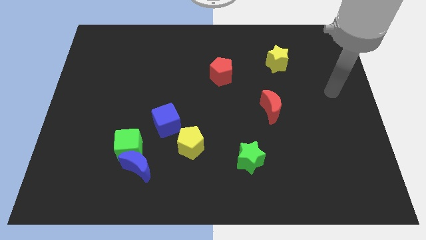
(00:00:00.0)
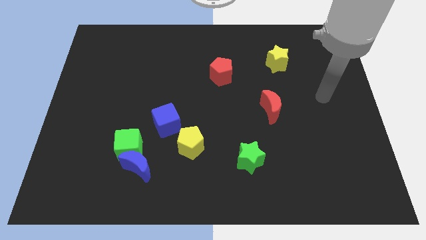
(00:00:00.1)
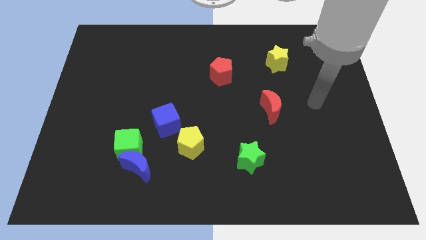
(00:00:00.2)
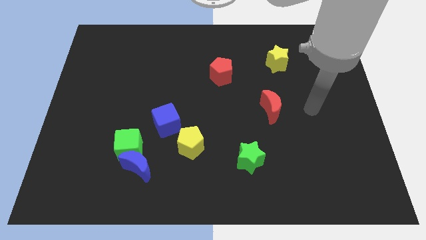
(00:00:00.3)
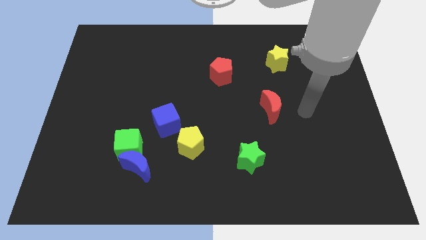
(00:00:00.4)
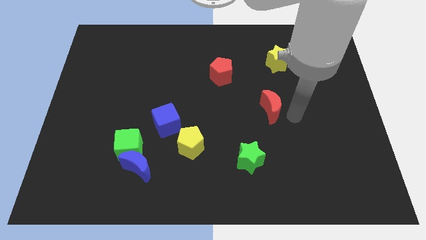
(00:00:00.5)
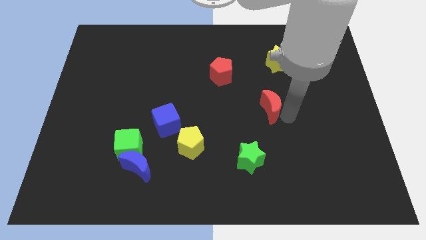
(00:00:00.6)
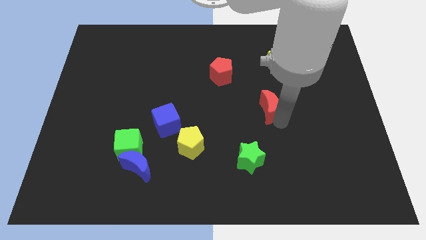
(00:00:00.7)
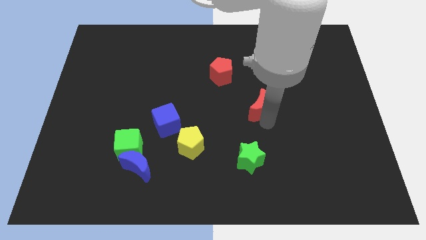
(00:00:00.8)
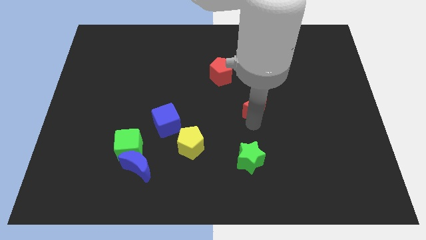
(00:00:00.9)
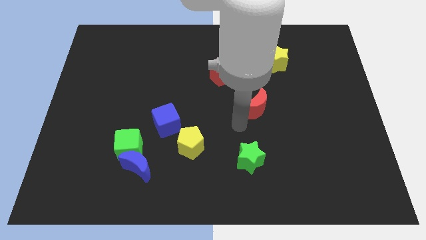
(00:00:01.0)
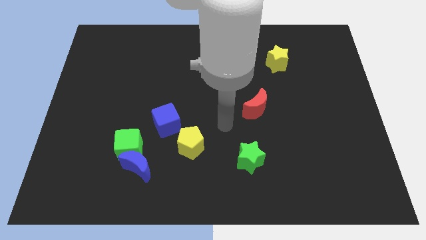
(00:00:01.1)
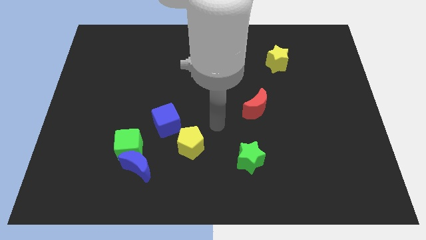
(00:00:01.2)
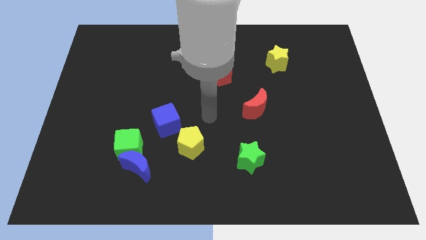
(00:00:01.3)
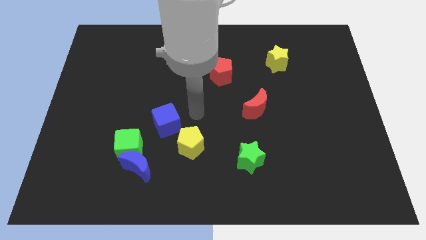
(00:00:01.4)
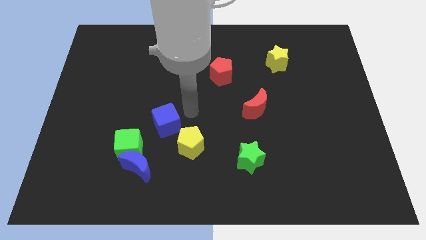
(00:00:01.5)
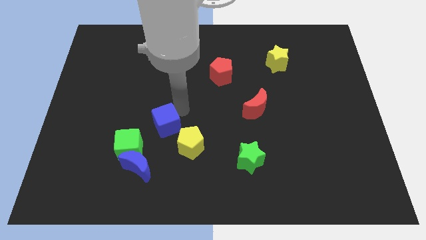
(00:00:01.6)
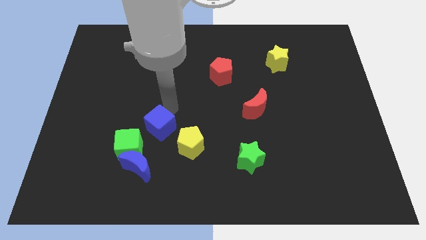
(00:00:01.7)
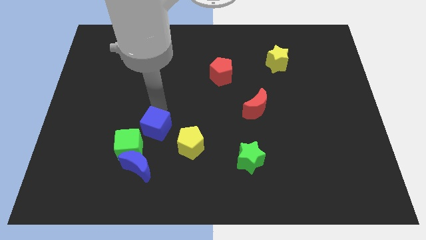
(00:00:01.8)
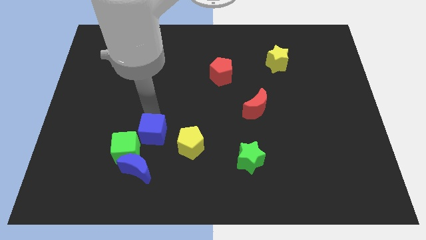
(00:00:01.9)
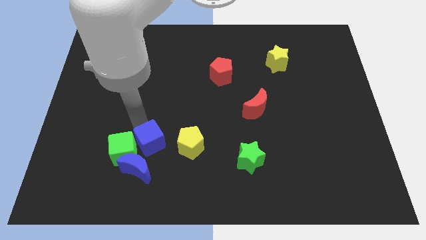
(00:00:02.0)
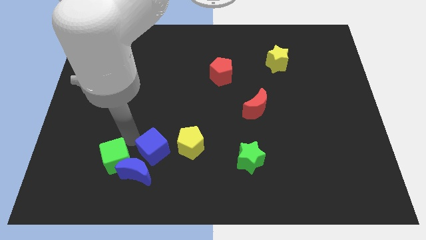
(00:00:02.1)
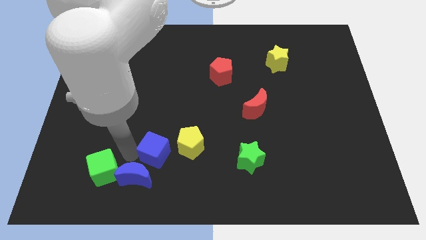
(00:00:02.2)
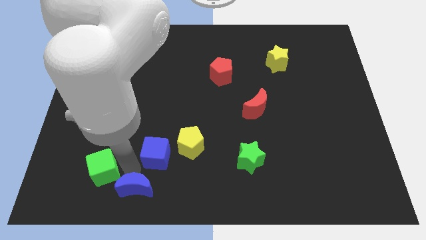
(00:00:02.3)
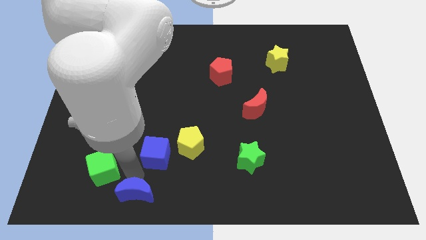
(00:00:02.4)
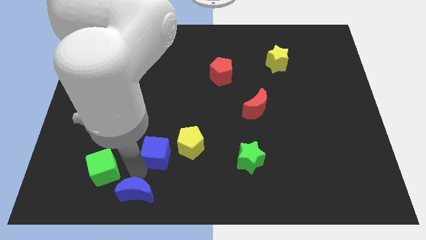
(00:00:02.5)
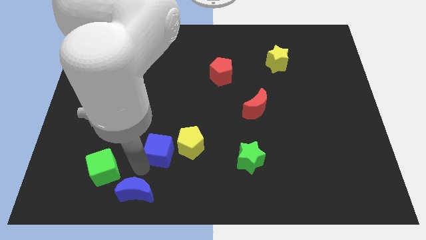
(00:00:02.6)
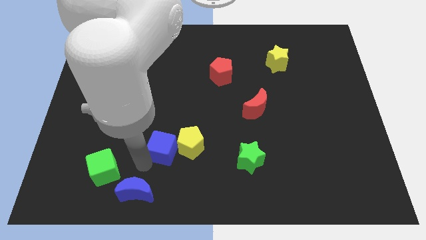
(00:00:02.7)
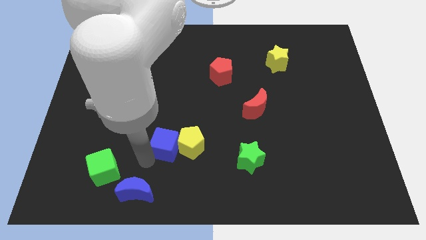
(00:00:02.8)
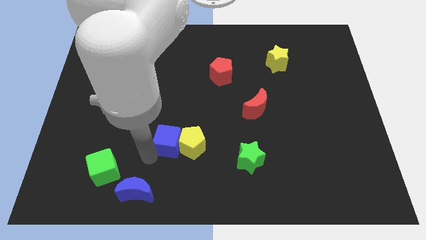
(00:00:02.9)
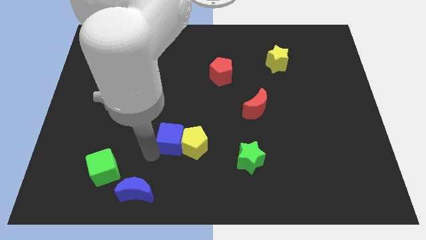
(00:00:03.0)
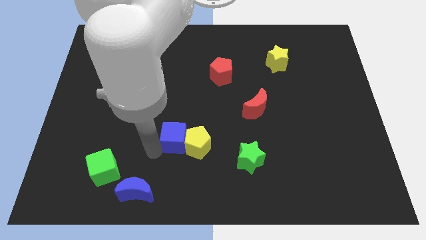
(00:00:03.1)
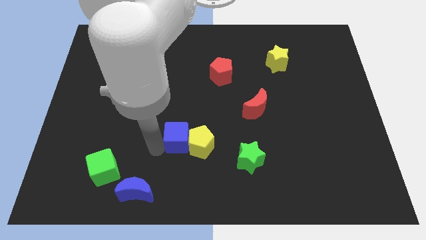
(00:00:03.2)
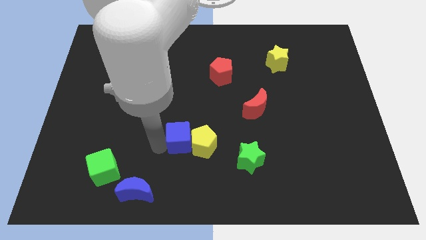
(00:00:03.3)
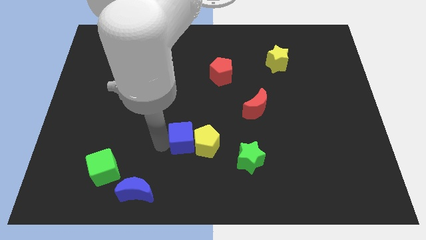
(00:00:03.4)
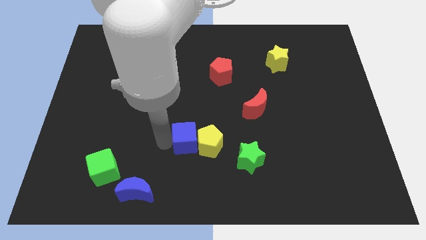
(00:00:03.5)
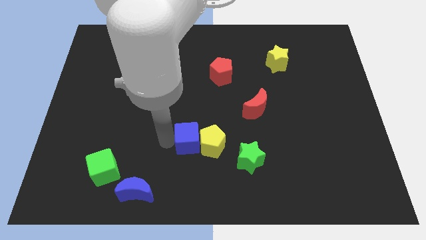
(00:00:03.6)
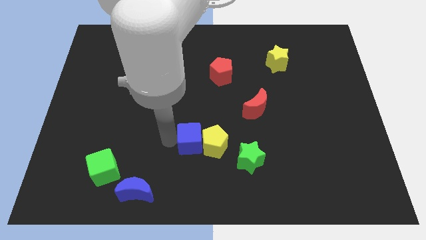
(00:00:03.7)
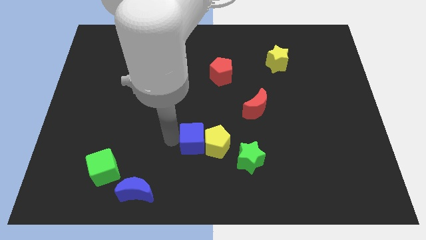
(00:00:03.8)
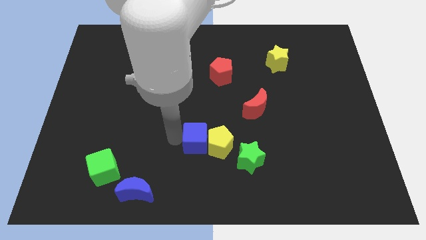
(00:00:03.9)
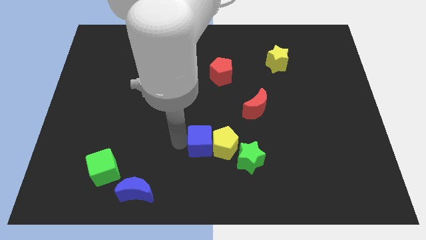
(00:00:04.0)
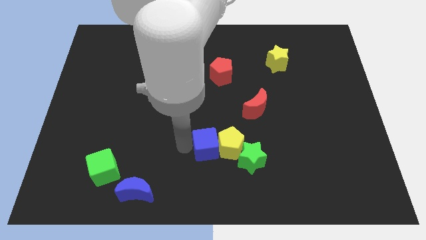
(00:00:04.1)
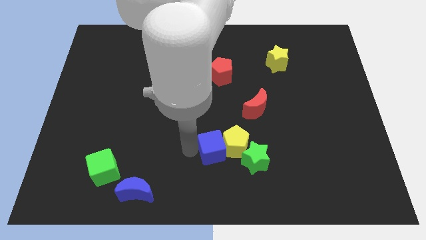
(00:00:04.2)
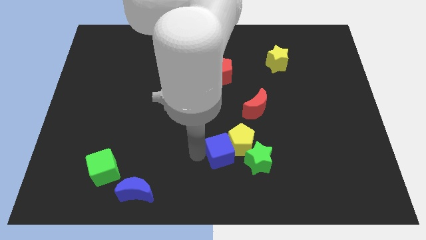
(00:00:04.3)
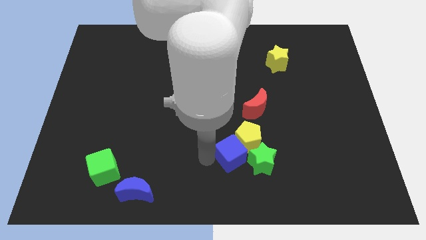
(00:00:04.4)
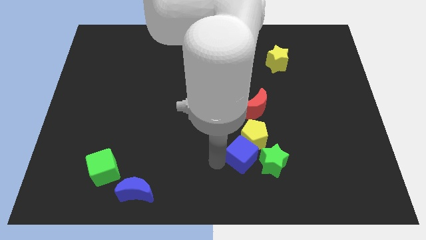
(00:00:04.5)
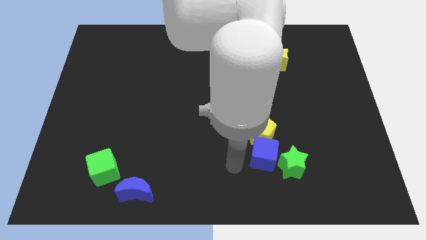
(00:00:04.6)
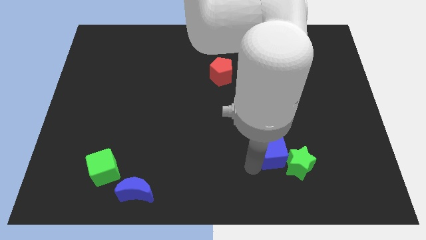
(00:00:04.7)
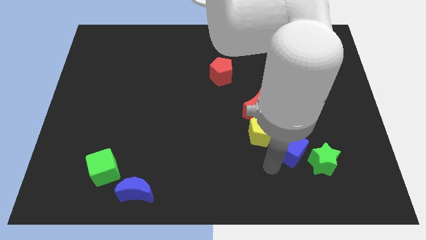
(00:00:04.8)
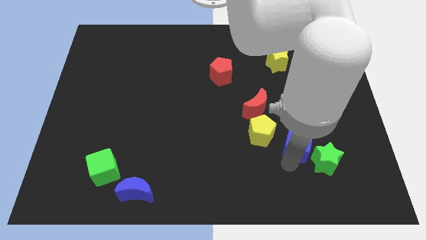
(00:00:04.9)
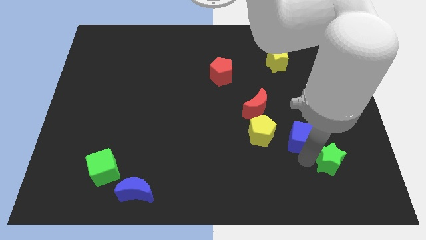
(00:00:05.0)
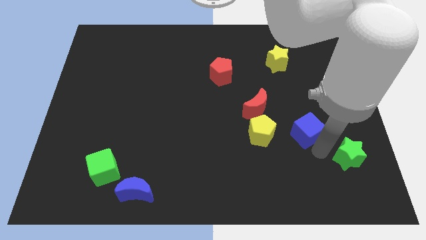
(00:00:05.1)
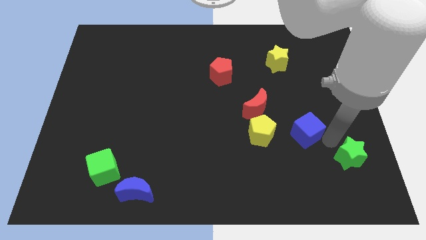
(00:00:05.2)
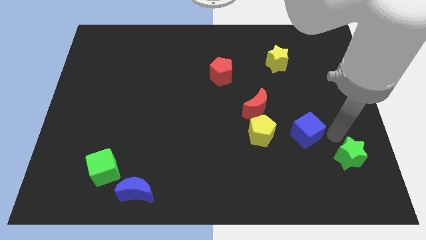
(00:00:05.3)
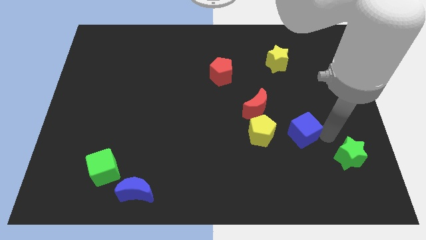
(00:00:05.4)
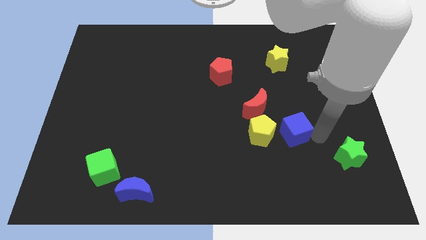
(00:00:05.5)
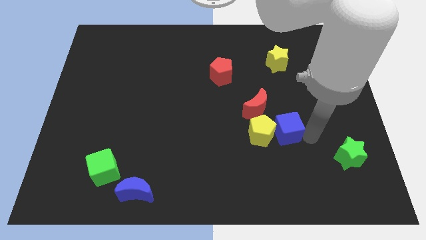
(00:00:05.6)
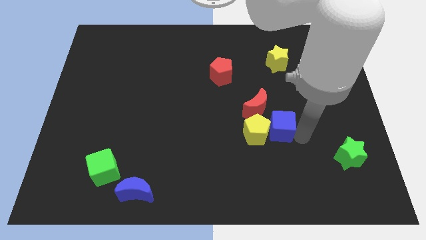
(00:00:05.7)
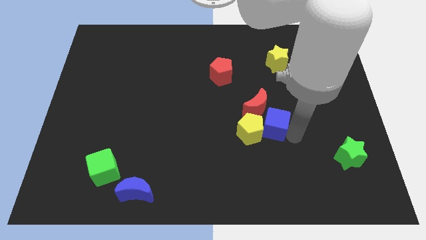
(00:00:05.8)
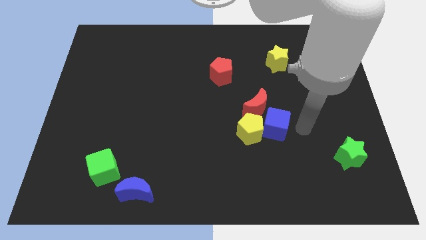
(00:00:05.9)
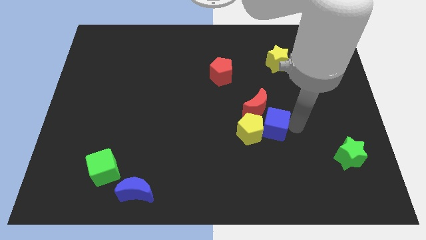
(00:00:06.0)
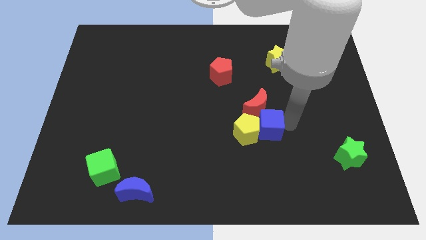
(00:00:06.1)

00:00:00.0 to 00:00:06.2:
push the blue cube to the red moon

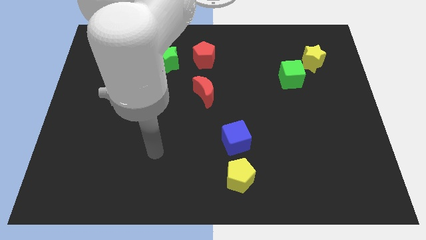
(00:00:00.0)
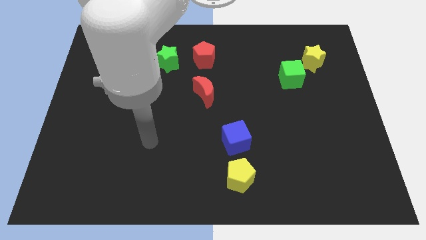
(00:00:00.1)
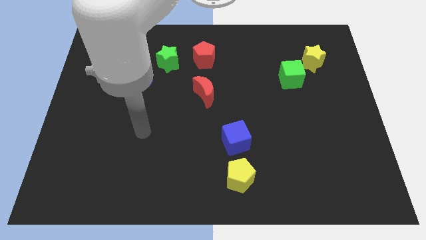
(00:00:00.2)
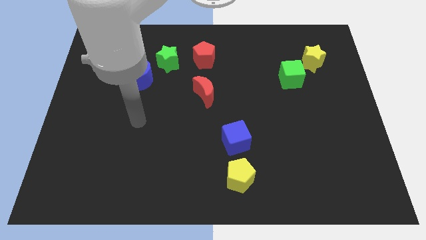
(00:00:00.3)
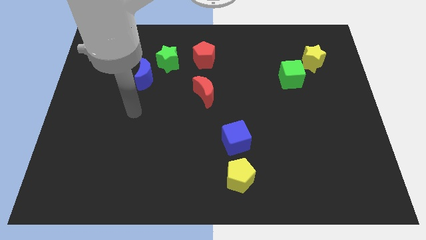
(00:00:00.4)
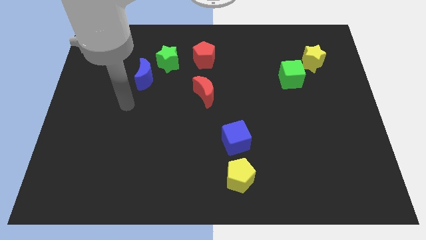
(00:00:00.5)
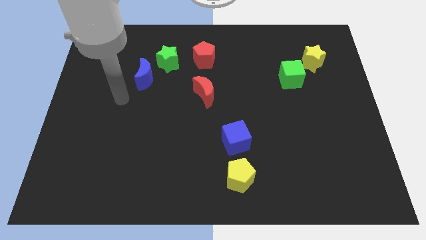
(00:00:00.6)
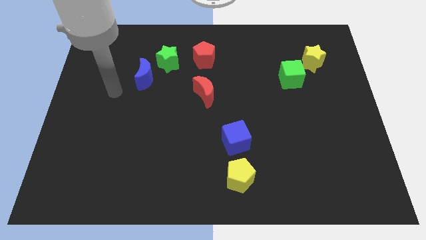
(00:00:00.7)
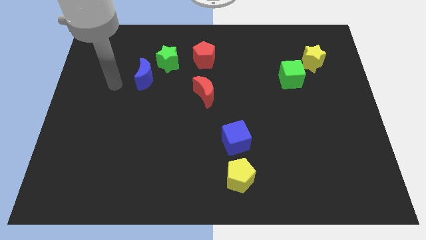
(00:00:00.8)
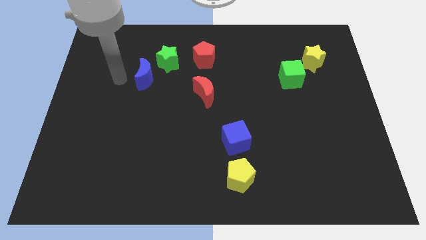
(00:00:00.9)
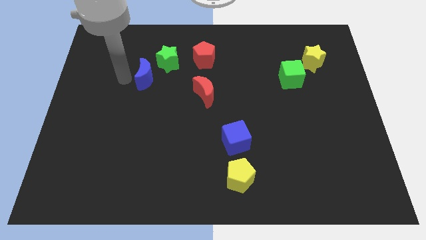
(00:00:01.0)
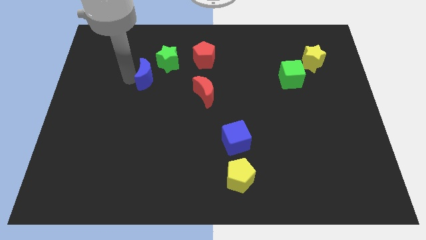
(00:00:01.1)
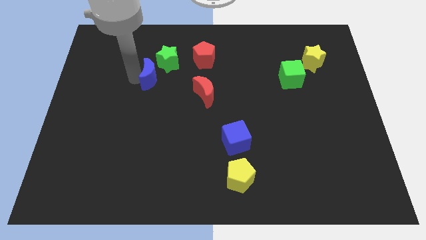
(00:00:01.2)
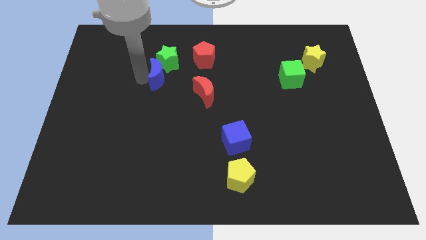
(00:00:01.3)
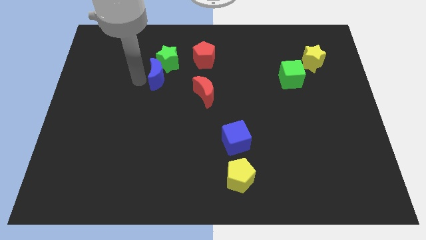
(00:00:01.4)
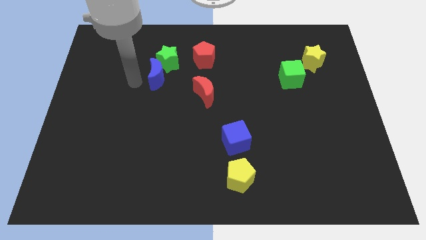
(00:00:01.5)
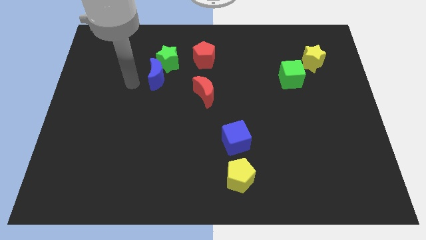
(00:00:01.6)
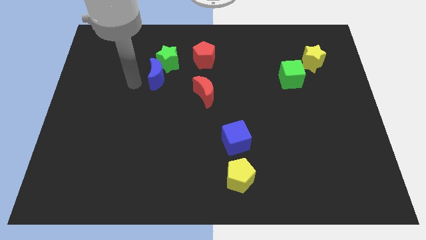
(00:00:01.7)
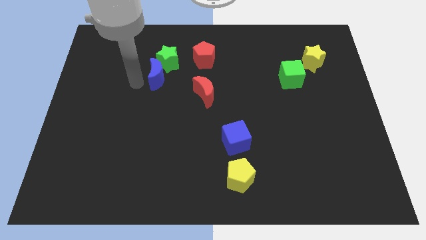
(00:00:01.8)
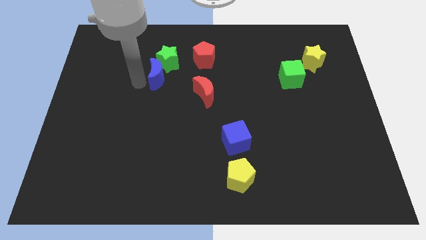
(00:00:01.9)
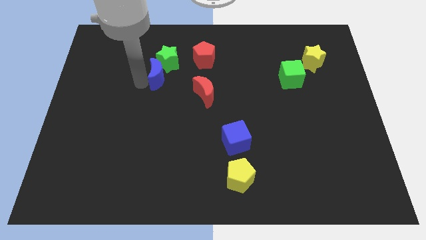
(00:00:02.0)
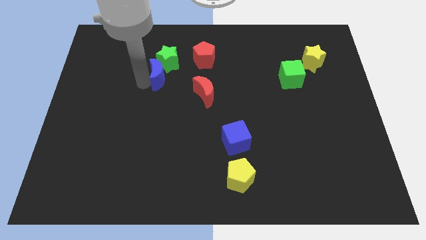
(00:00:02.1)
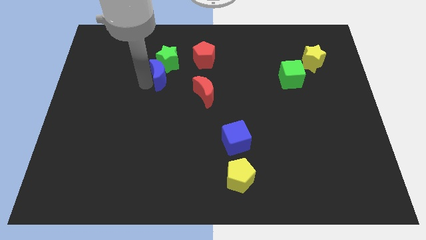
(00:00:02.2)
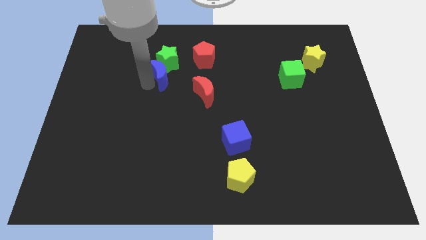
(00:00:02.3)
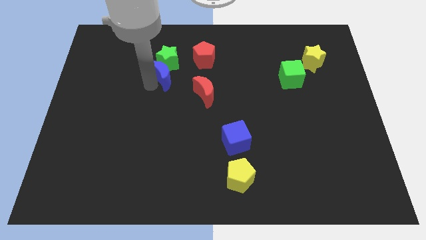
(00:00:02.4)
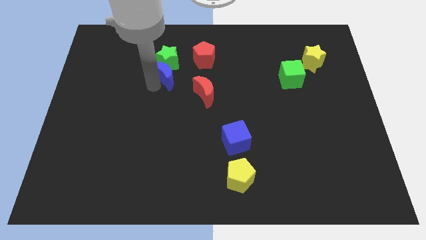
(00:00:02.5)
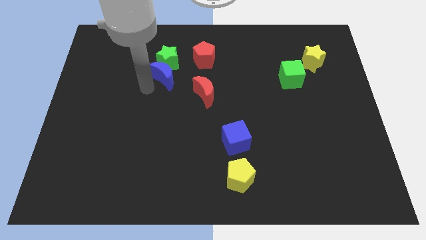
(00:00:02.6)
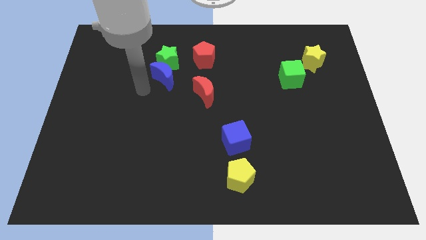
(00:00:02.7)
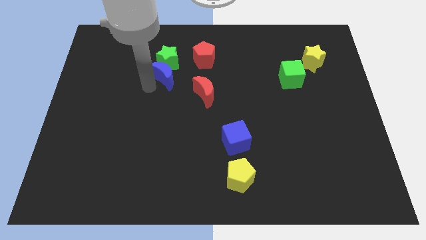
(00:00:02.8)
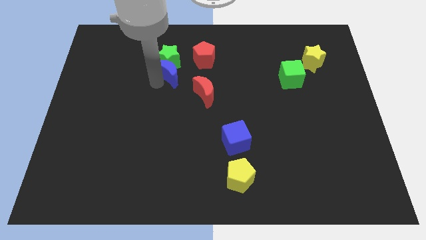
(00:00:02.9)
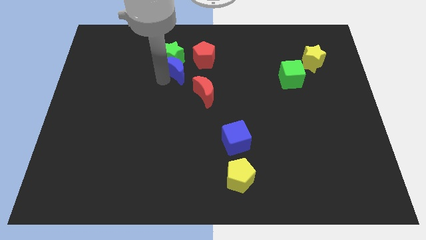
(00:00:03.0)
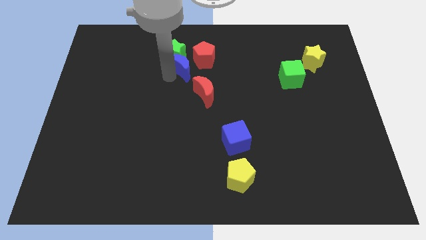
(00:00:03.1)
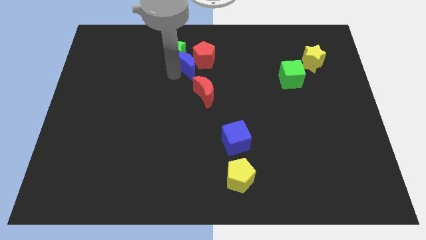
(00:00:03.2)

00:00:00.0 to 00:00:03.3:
push the blue moon close to the red pentagon
